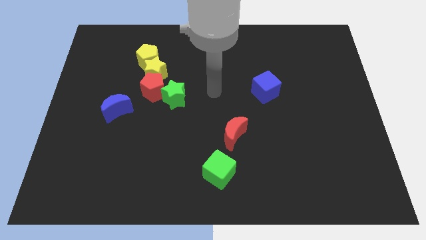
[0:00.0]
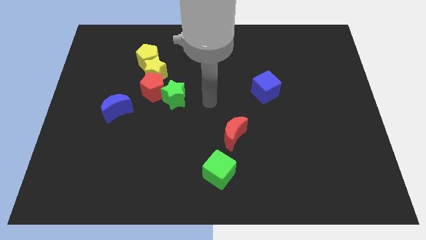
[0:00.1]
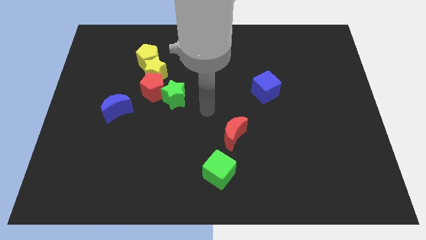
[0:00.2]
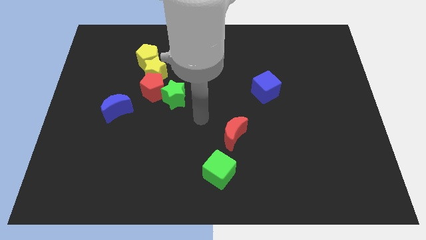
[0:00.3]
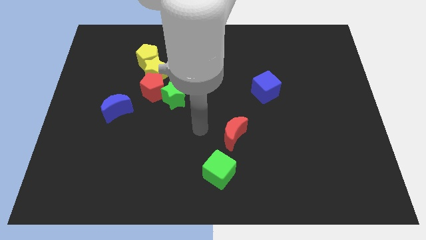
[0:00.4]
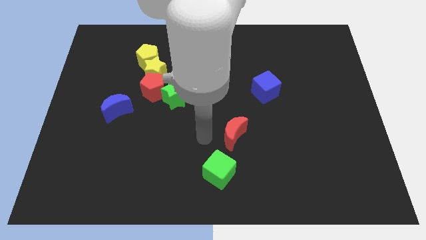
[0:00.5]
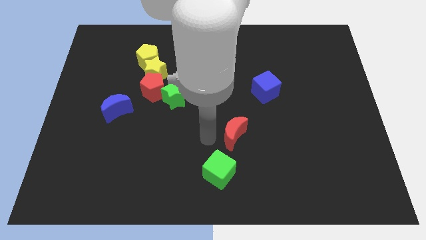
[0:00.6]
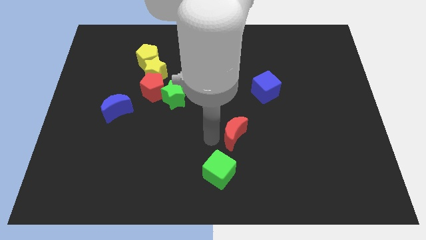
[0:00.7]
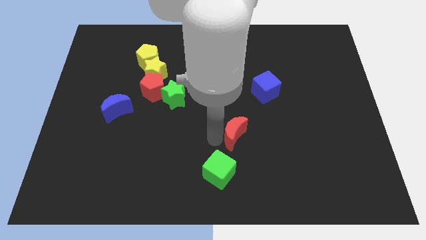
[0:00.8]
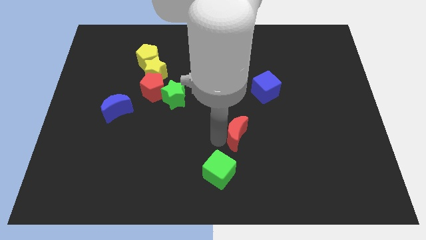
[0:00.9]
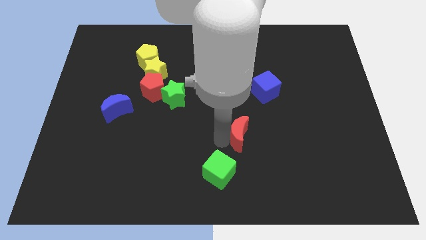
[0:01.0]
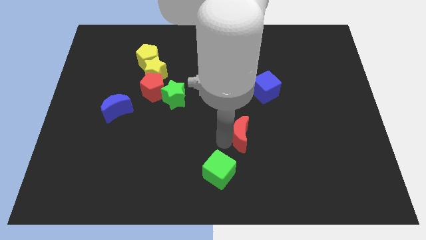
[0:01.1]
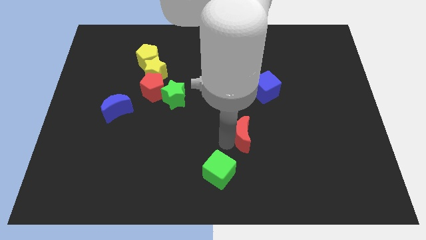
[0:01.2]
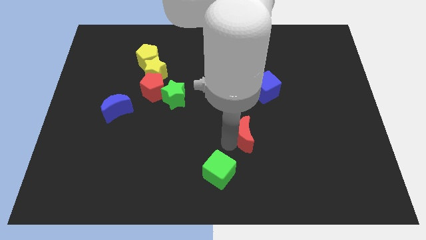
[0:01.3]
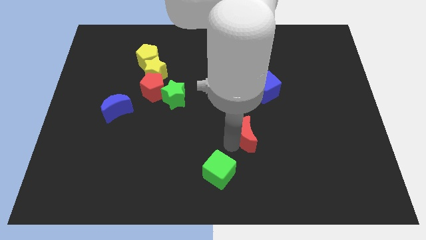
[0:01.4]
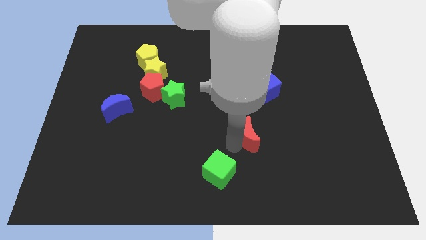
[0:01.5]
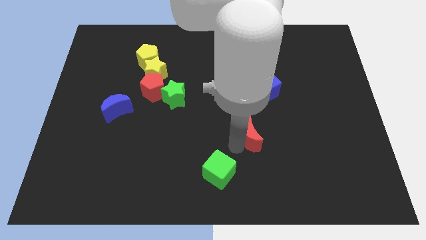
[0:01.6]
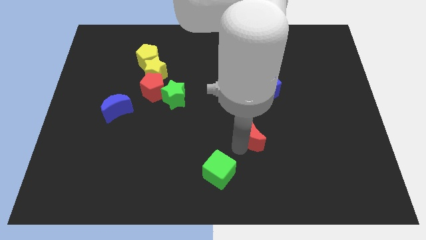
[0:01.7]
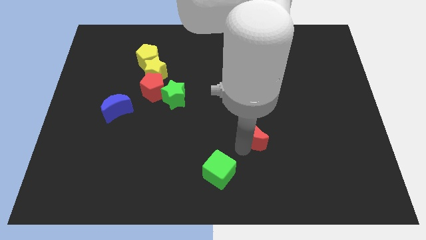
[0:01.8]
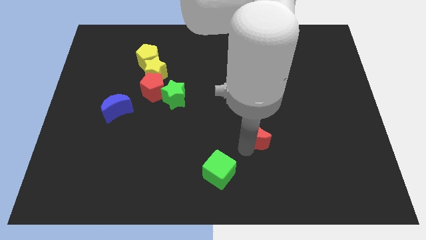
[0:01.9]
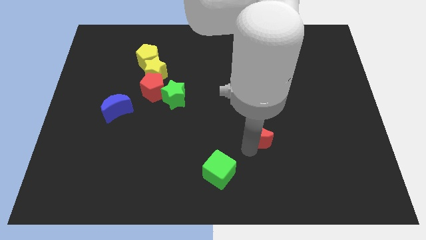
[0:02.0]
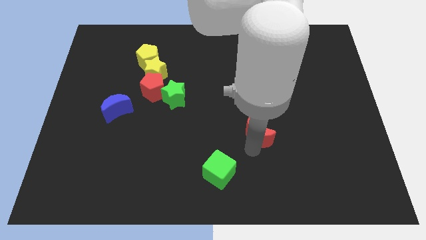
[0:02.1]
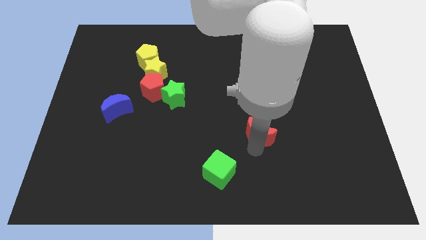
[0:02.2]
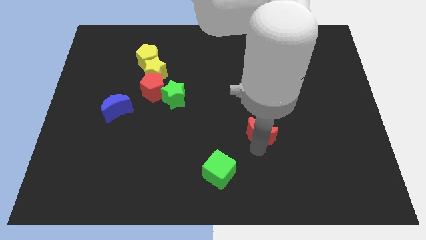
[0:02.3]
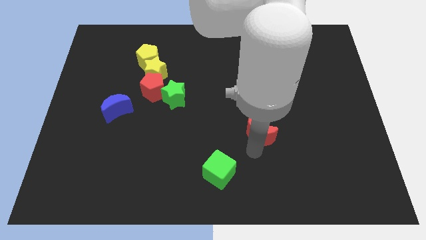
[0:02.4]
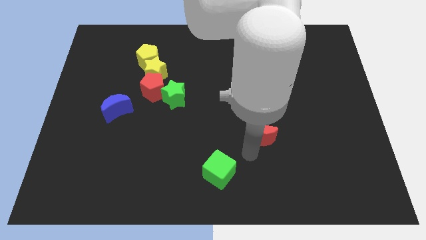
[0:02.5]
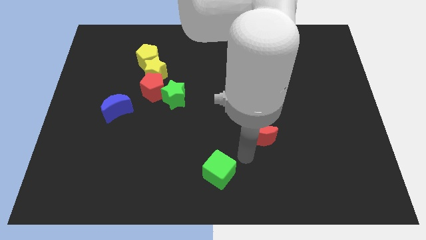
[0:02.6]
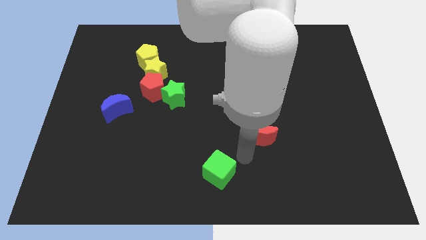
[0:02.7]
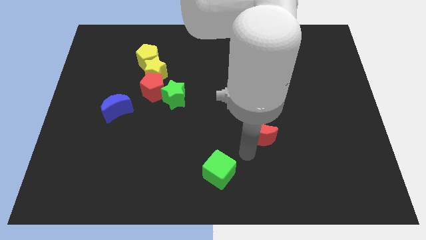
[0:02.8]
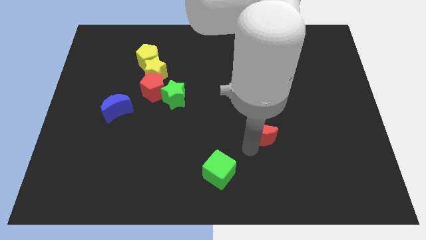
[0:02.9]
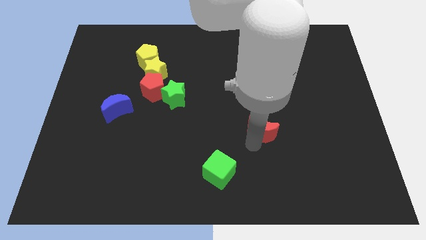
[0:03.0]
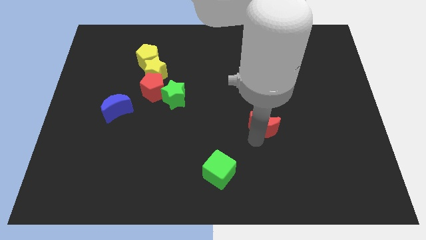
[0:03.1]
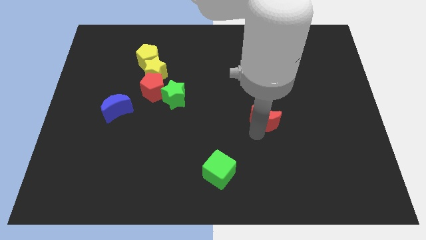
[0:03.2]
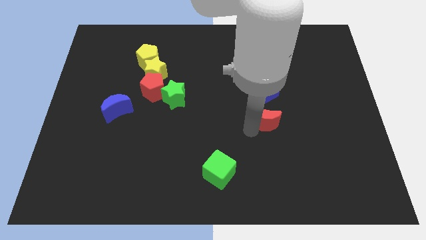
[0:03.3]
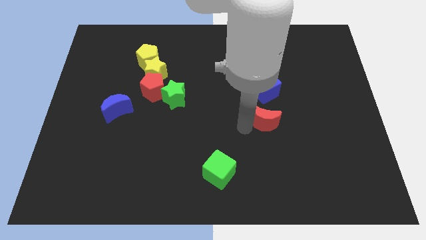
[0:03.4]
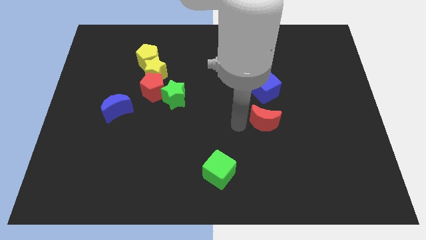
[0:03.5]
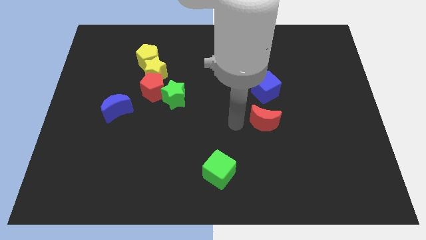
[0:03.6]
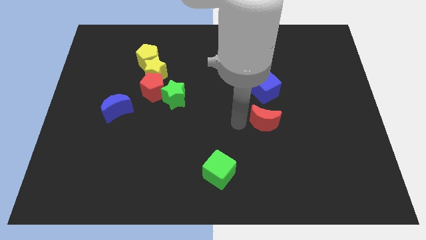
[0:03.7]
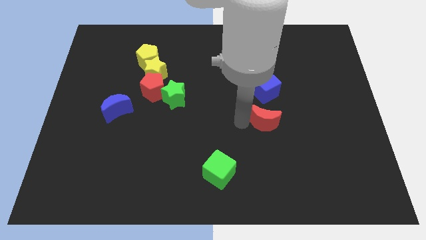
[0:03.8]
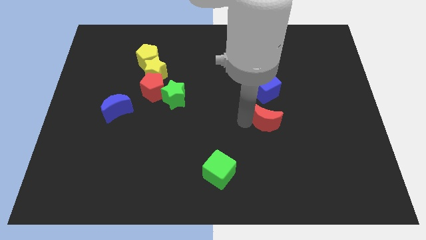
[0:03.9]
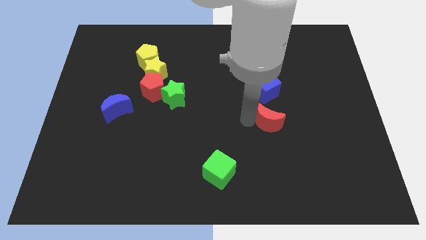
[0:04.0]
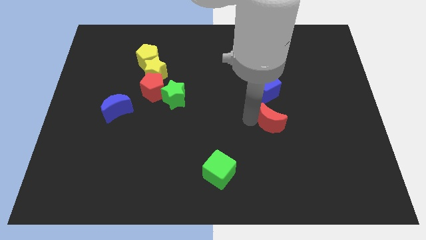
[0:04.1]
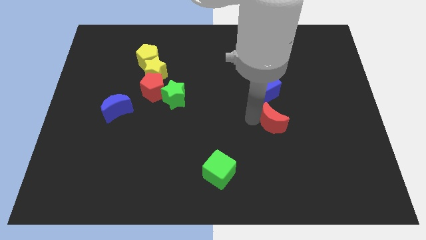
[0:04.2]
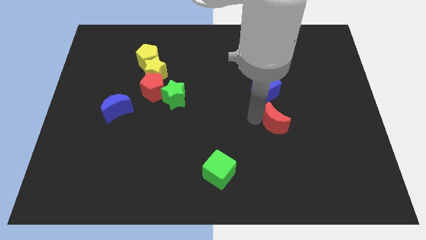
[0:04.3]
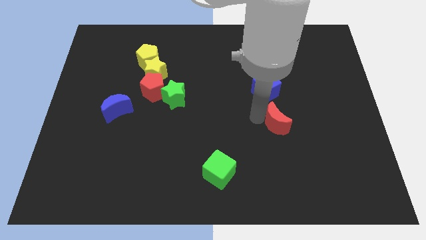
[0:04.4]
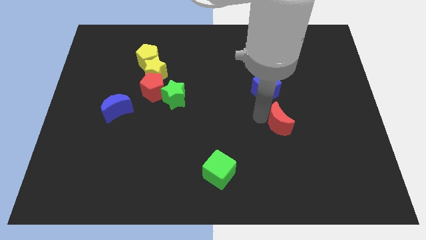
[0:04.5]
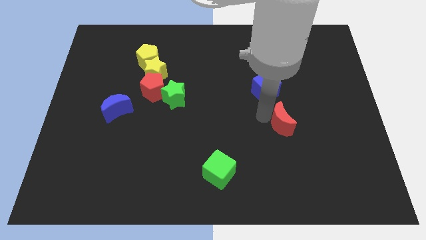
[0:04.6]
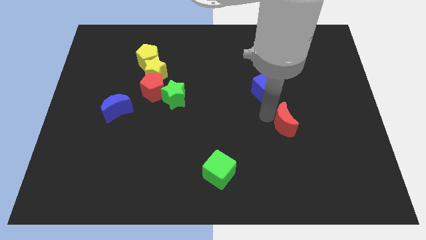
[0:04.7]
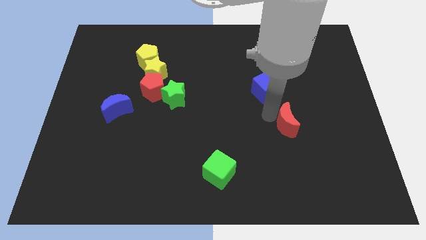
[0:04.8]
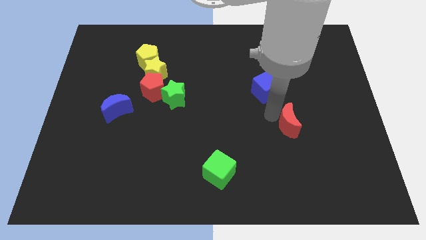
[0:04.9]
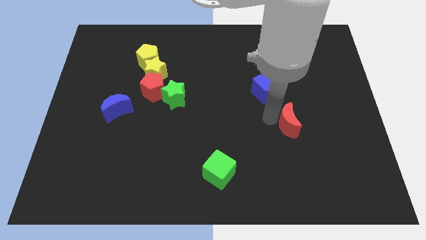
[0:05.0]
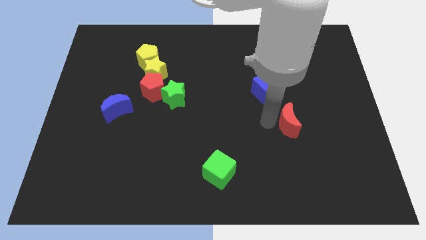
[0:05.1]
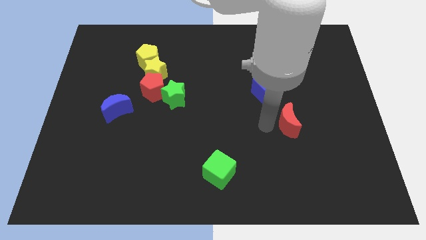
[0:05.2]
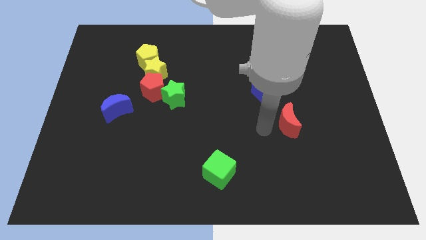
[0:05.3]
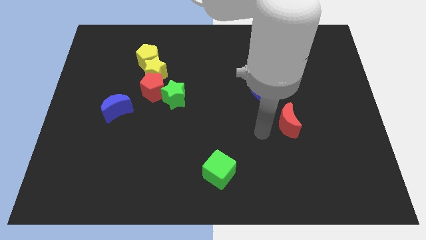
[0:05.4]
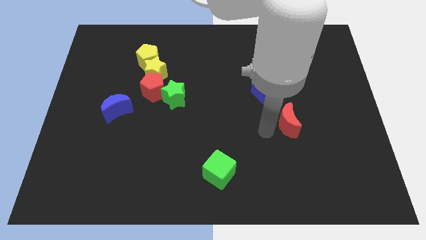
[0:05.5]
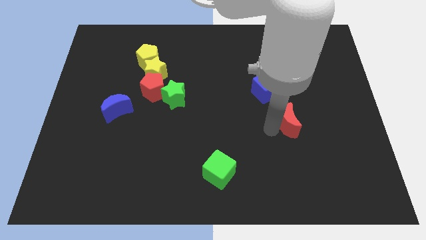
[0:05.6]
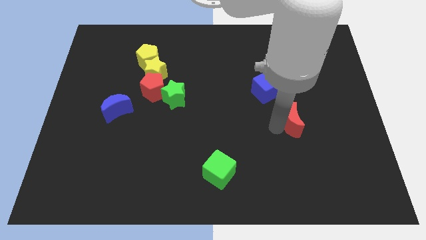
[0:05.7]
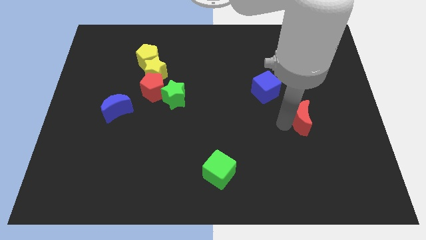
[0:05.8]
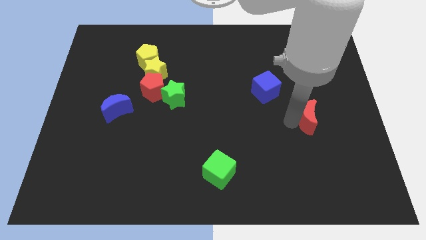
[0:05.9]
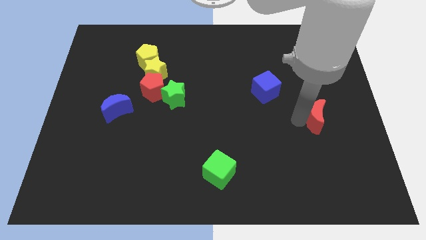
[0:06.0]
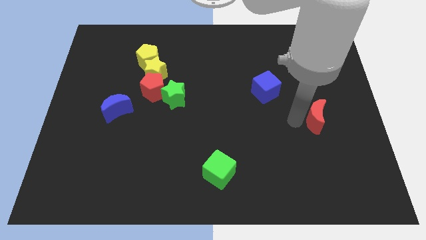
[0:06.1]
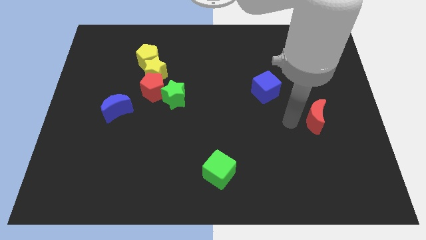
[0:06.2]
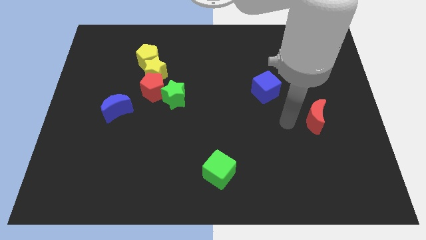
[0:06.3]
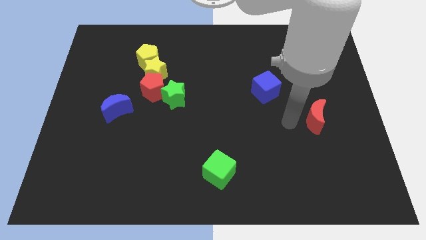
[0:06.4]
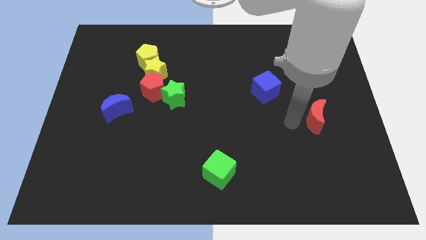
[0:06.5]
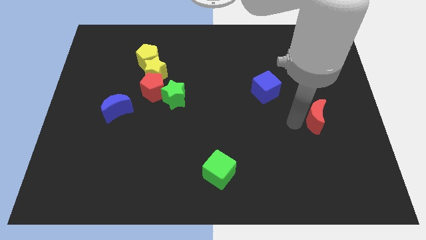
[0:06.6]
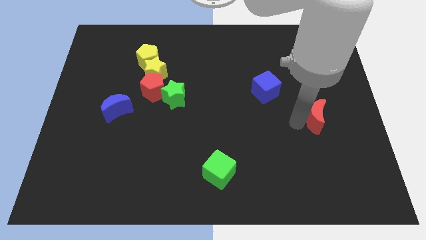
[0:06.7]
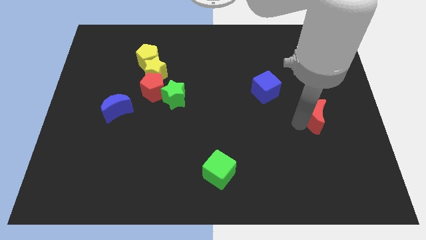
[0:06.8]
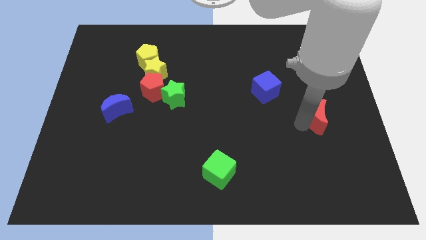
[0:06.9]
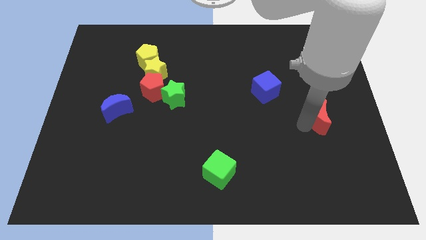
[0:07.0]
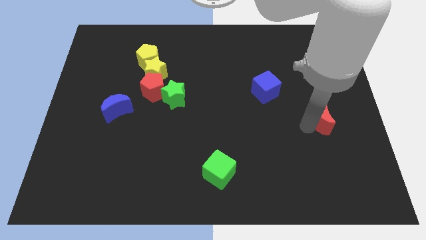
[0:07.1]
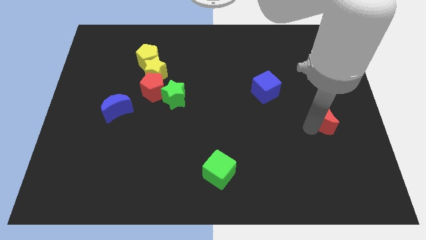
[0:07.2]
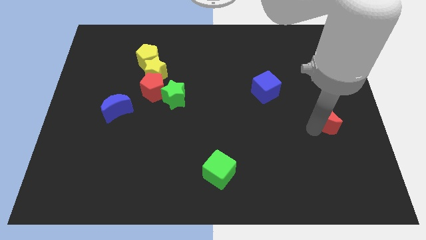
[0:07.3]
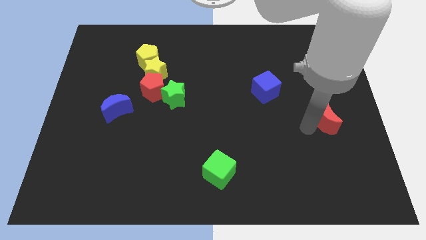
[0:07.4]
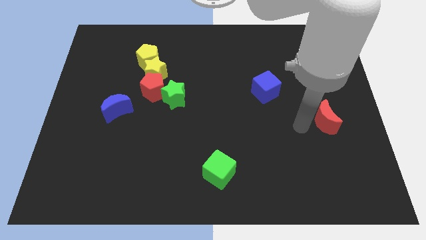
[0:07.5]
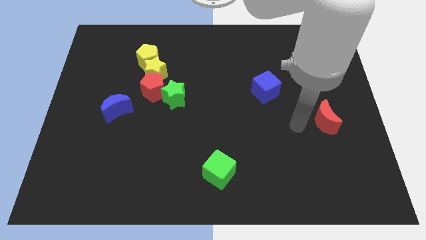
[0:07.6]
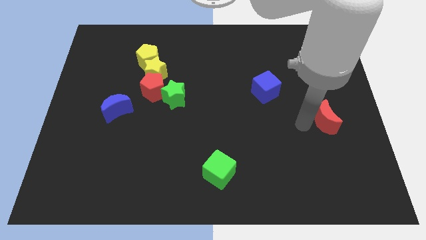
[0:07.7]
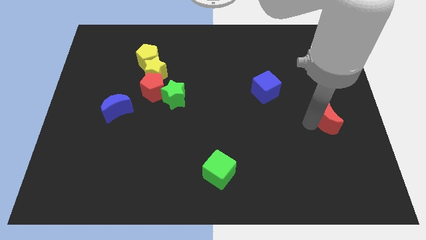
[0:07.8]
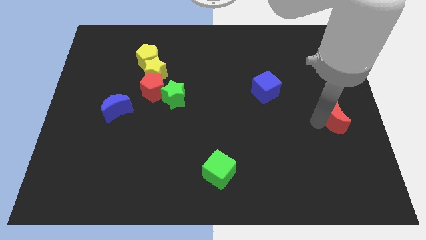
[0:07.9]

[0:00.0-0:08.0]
put the red moon to the right side of the board
